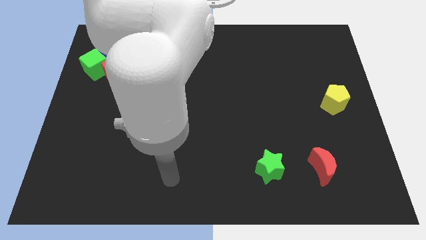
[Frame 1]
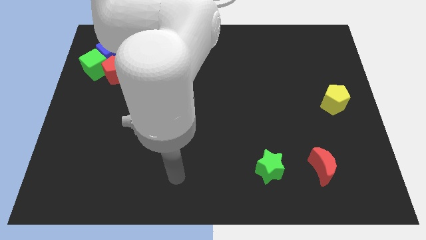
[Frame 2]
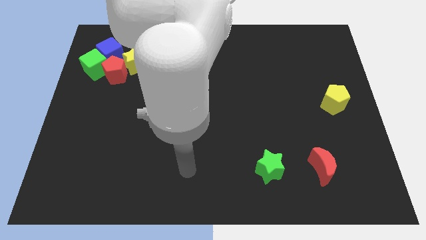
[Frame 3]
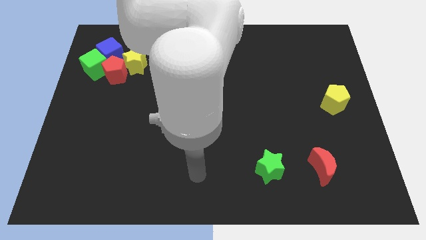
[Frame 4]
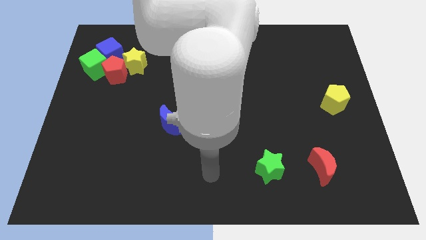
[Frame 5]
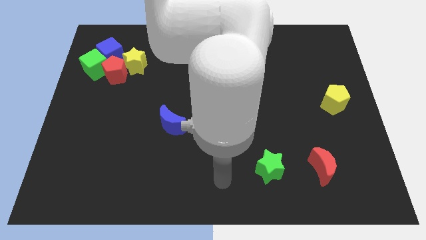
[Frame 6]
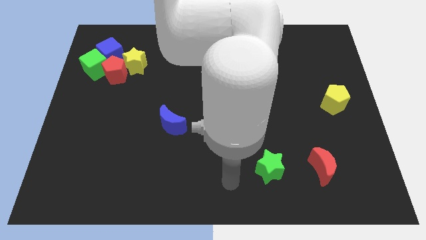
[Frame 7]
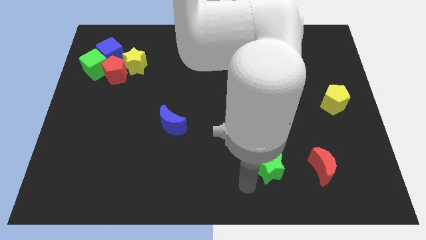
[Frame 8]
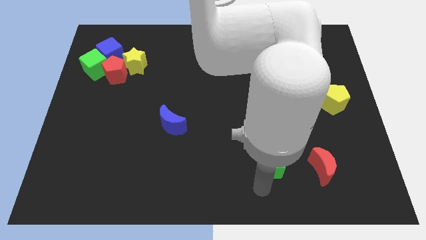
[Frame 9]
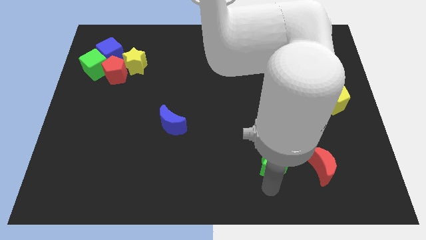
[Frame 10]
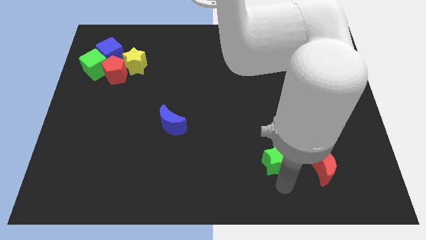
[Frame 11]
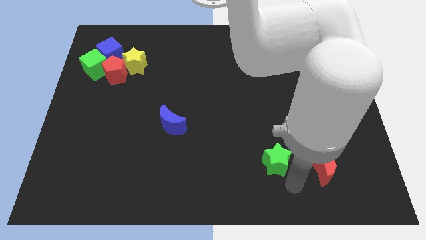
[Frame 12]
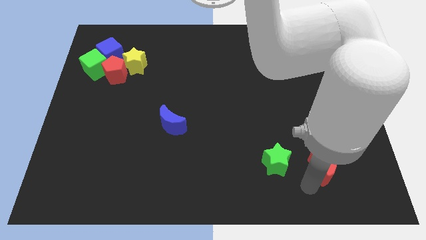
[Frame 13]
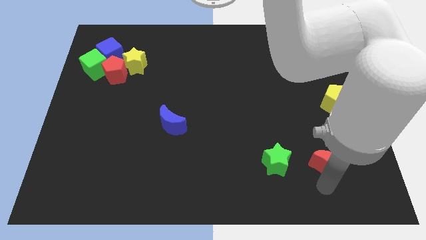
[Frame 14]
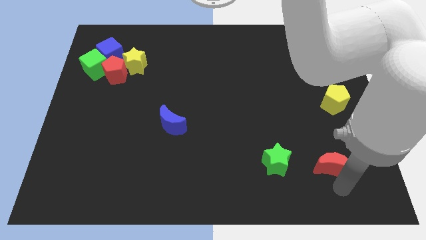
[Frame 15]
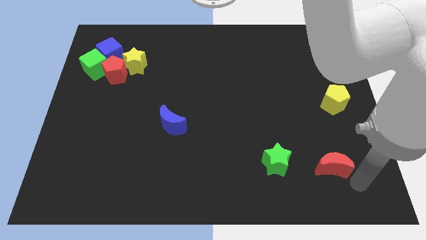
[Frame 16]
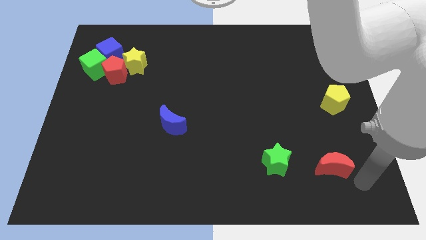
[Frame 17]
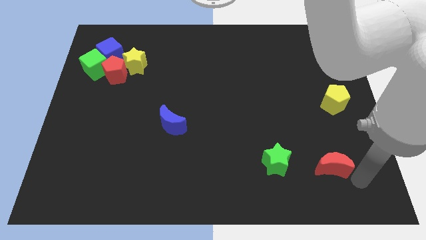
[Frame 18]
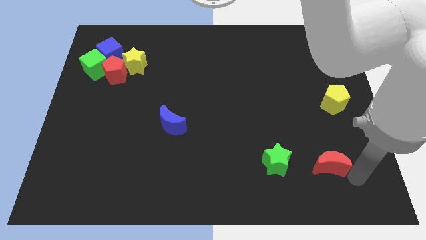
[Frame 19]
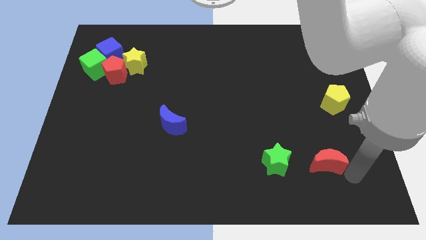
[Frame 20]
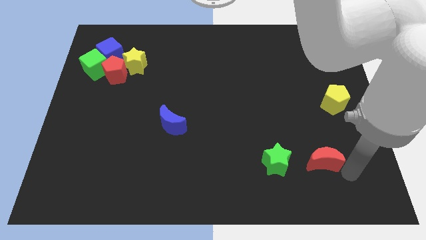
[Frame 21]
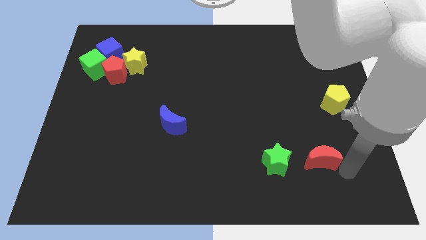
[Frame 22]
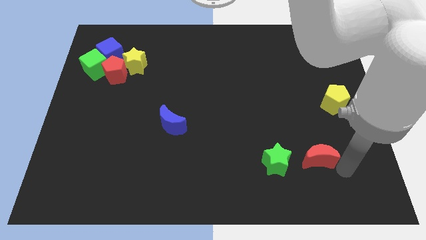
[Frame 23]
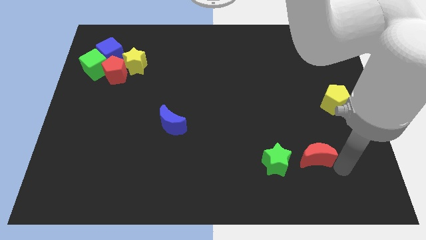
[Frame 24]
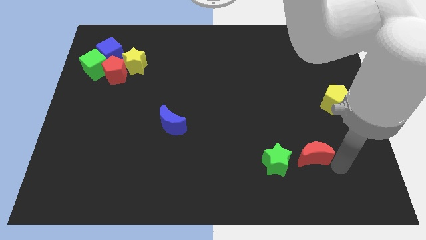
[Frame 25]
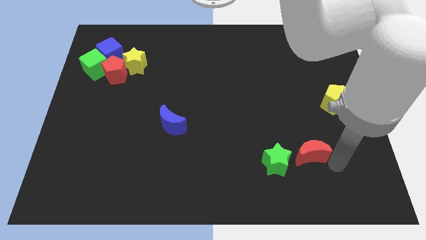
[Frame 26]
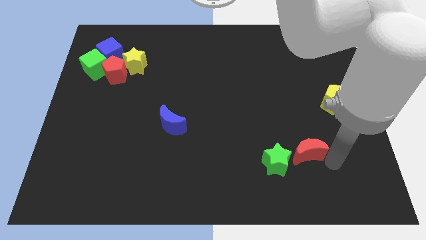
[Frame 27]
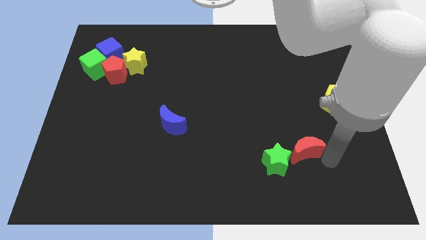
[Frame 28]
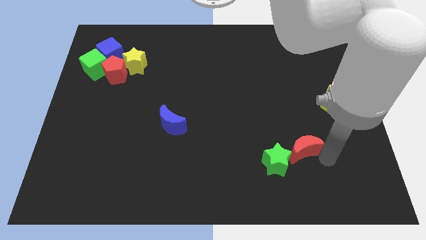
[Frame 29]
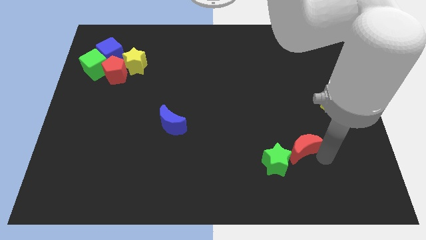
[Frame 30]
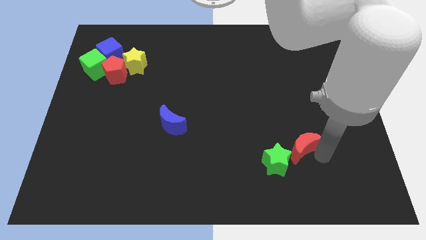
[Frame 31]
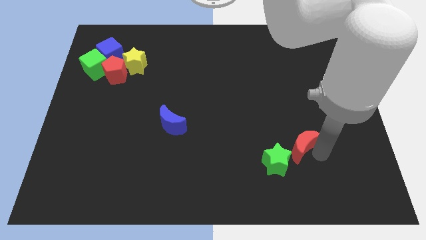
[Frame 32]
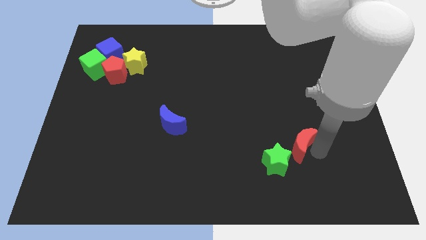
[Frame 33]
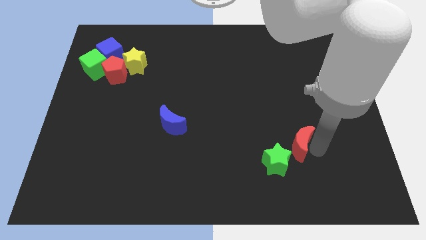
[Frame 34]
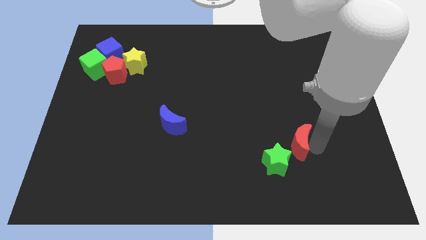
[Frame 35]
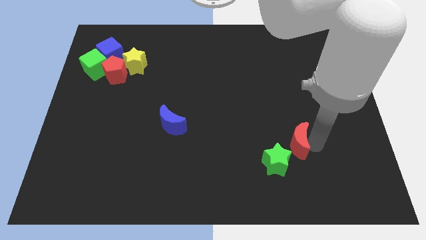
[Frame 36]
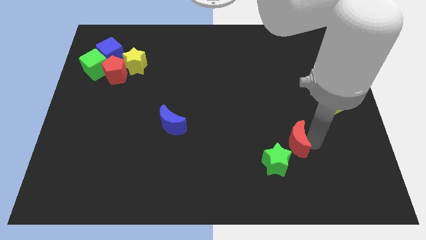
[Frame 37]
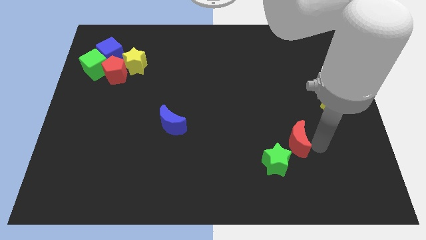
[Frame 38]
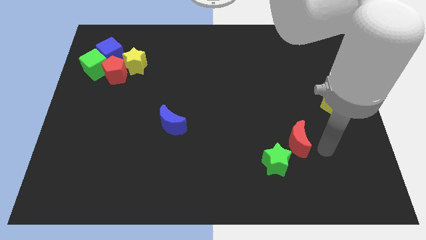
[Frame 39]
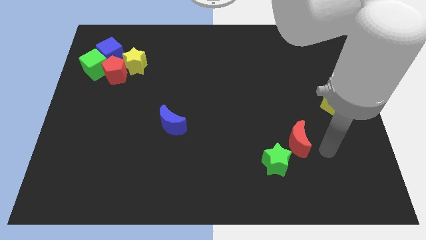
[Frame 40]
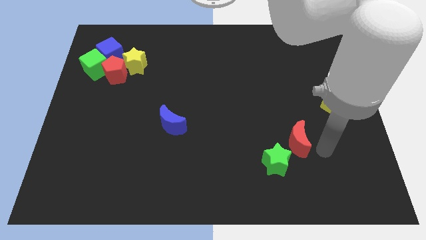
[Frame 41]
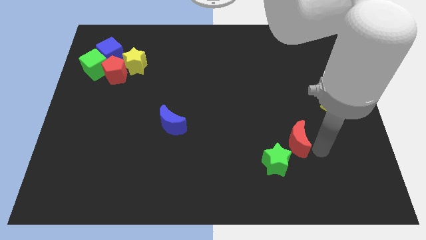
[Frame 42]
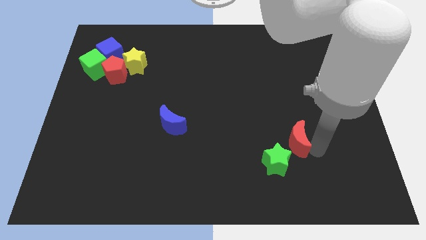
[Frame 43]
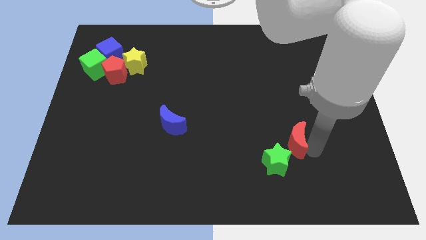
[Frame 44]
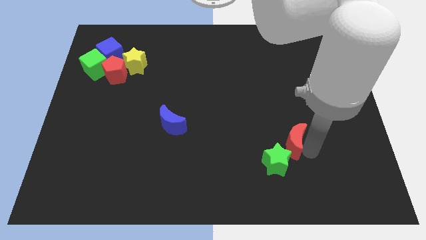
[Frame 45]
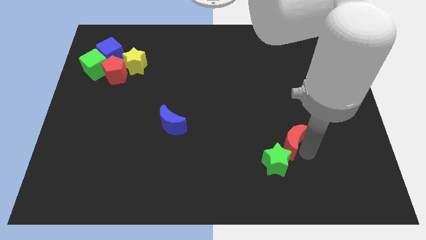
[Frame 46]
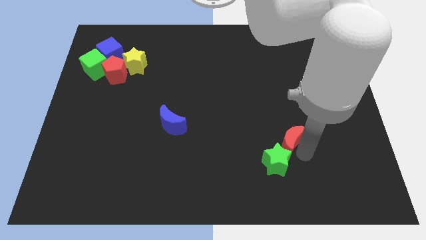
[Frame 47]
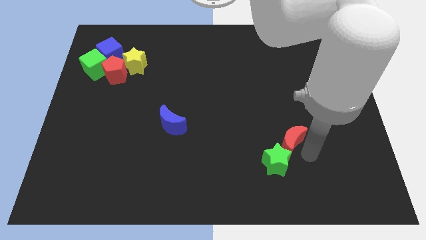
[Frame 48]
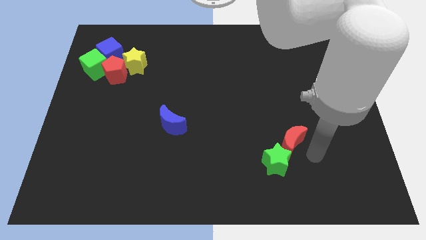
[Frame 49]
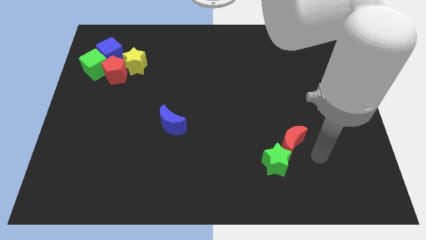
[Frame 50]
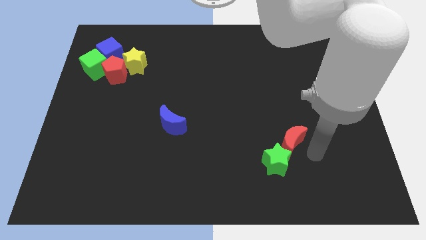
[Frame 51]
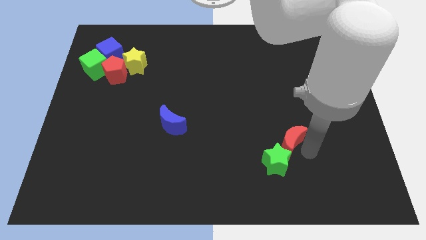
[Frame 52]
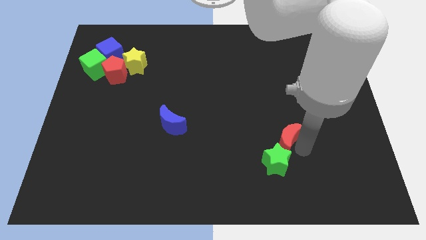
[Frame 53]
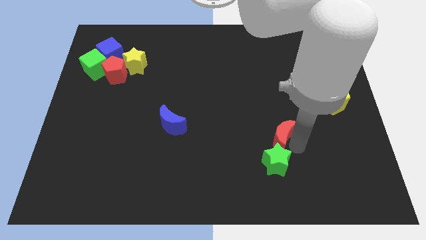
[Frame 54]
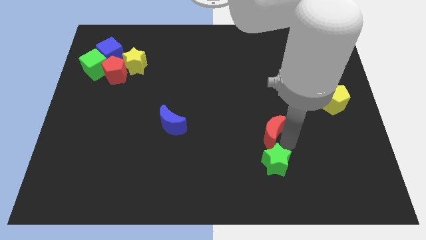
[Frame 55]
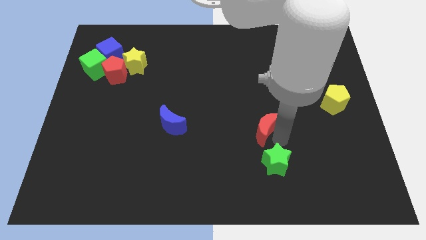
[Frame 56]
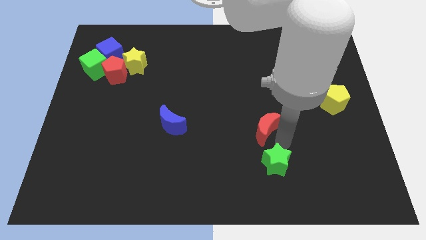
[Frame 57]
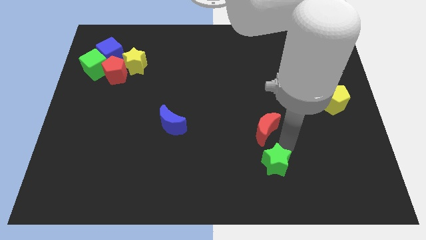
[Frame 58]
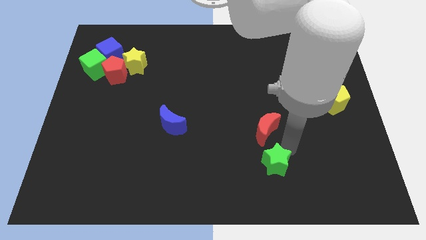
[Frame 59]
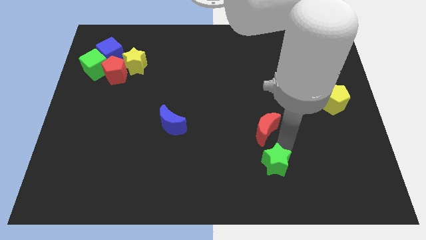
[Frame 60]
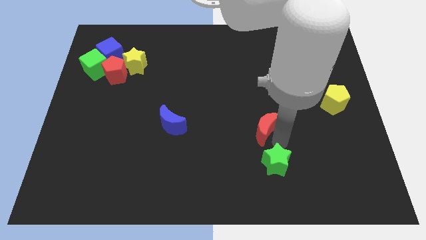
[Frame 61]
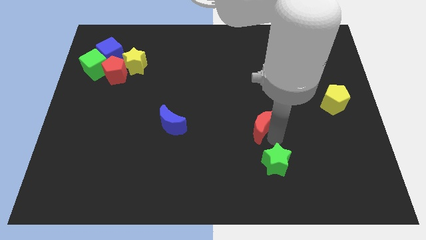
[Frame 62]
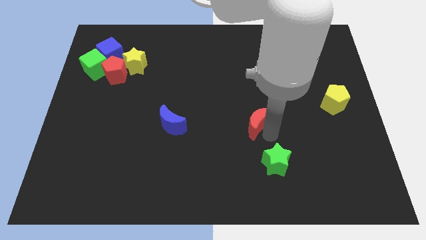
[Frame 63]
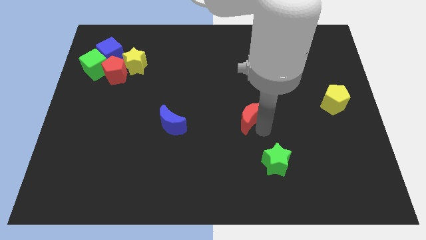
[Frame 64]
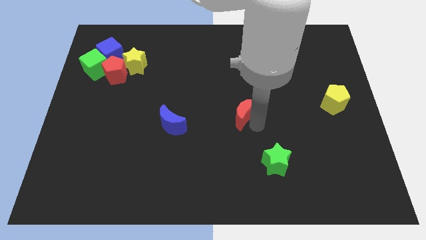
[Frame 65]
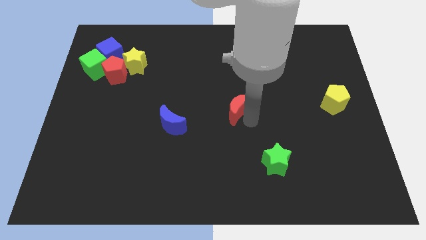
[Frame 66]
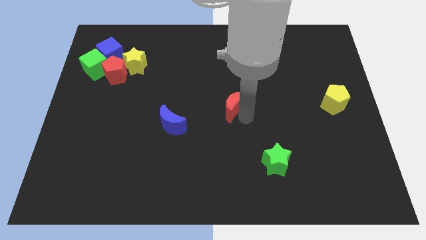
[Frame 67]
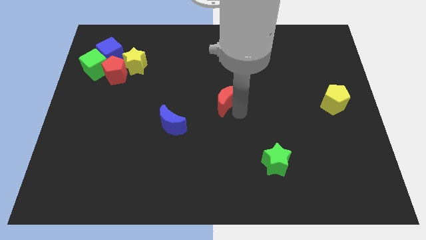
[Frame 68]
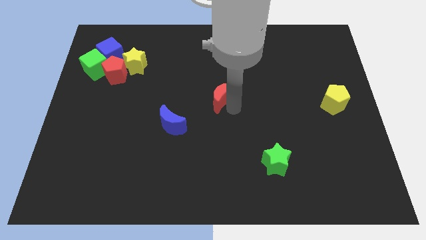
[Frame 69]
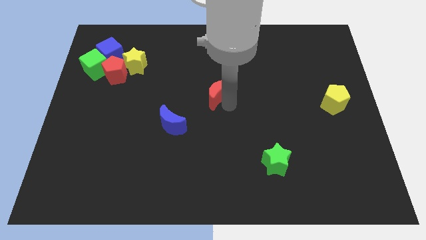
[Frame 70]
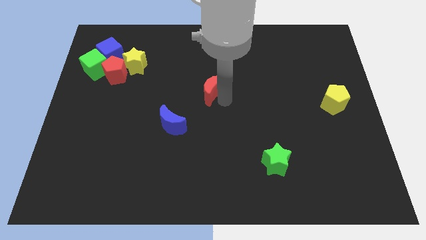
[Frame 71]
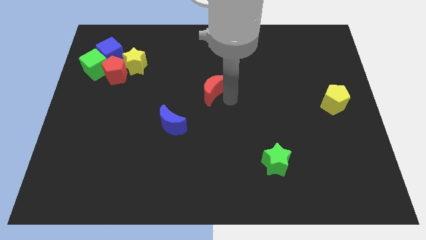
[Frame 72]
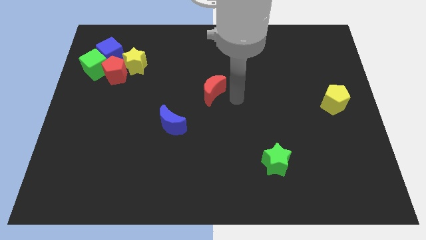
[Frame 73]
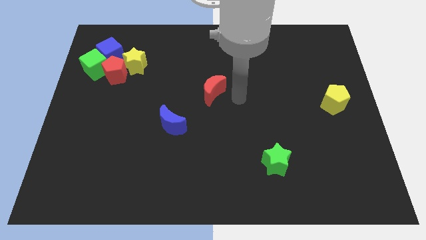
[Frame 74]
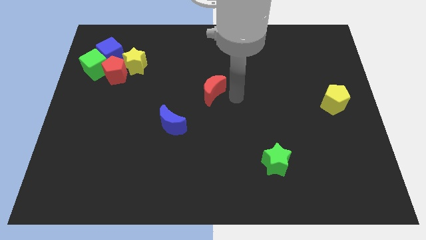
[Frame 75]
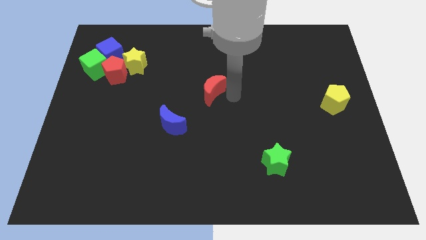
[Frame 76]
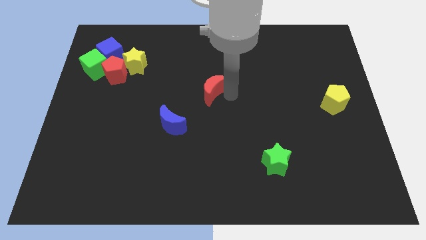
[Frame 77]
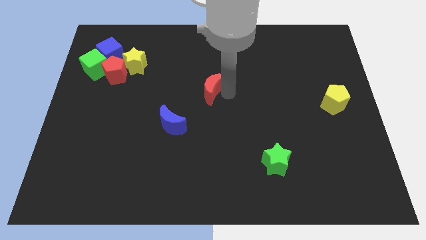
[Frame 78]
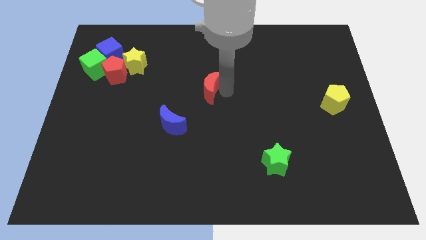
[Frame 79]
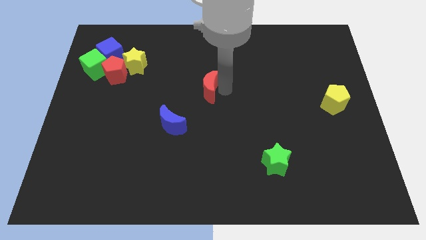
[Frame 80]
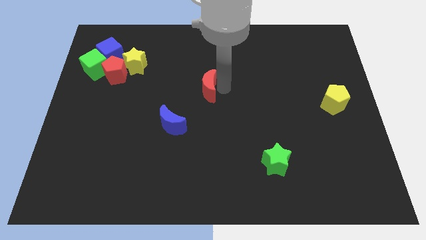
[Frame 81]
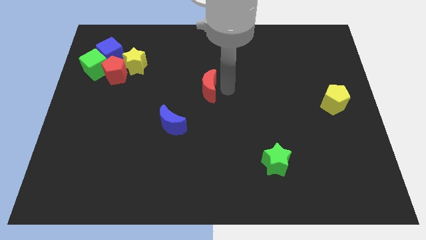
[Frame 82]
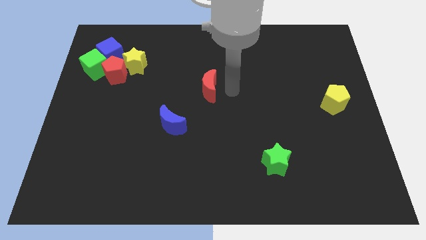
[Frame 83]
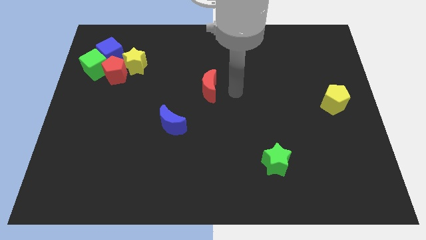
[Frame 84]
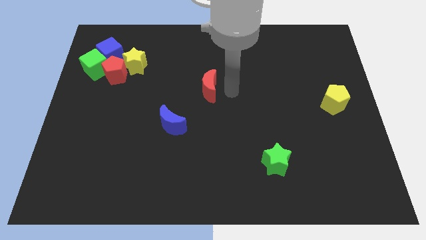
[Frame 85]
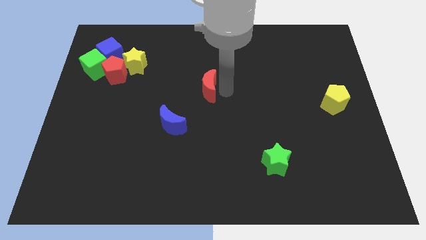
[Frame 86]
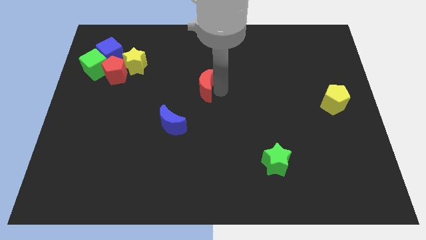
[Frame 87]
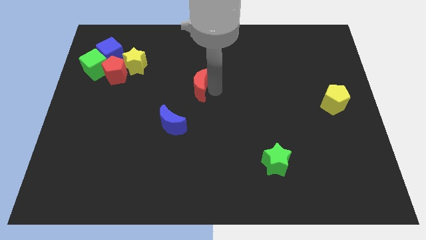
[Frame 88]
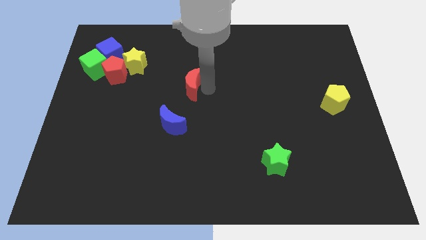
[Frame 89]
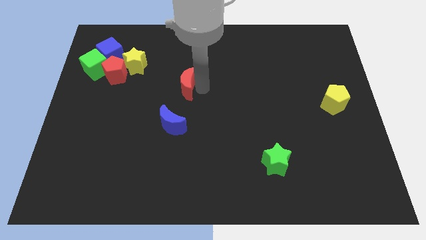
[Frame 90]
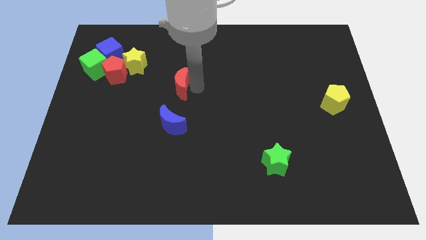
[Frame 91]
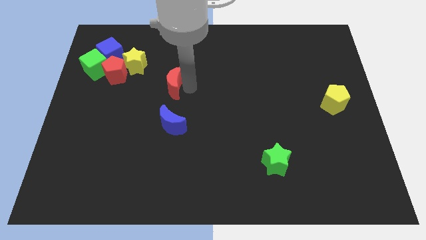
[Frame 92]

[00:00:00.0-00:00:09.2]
move the red moon to the bottom right side of the yellow star
